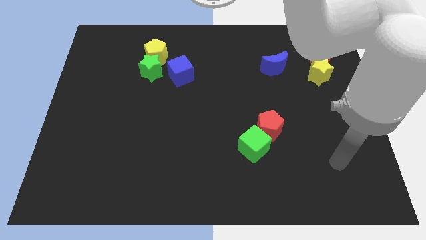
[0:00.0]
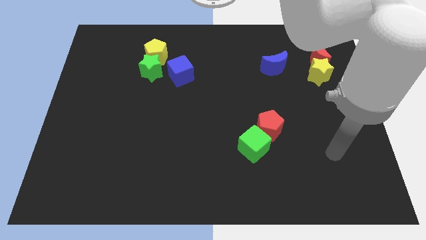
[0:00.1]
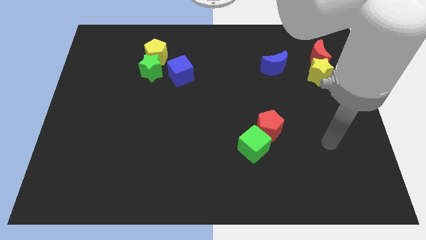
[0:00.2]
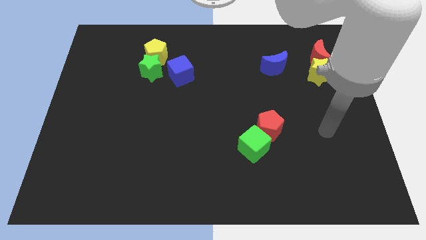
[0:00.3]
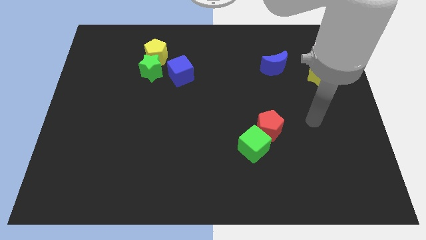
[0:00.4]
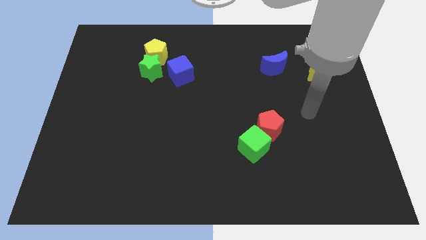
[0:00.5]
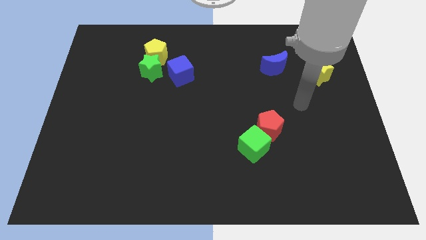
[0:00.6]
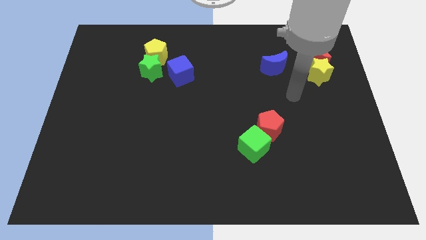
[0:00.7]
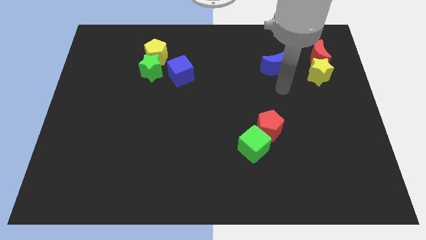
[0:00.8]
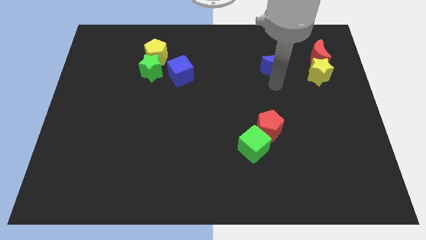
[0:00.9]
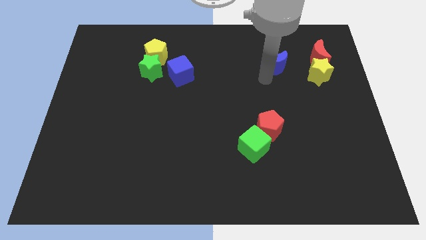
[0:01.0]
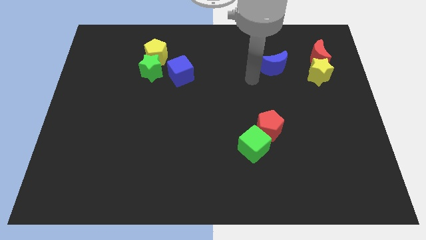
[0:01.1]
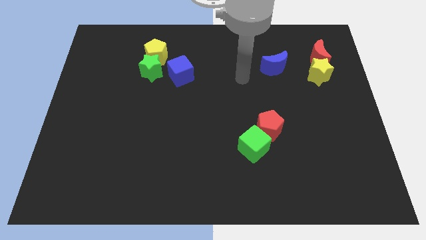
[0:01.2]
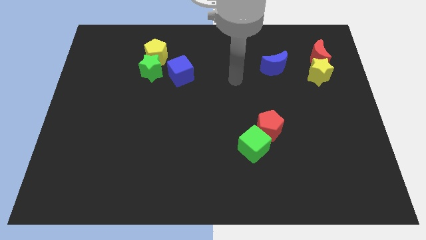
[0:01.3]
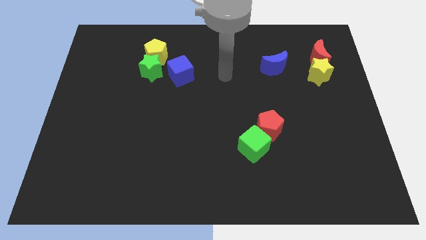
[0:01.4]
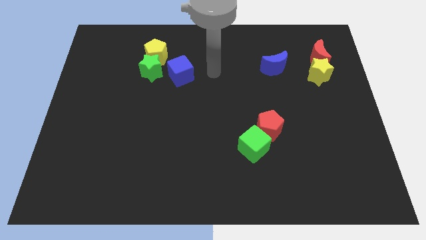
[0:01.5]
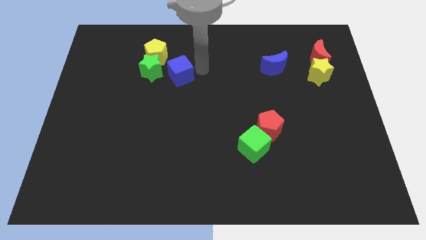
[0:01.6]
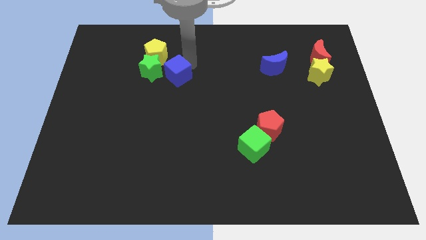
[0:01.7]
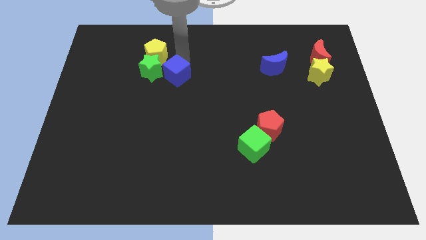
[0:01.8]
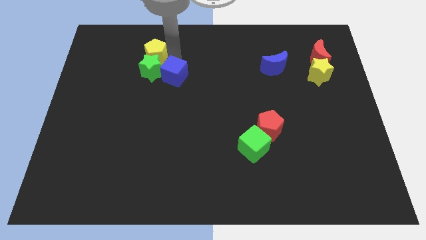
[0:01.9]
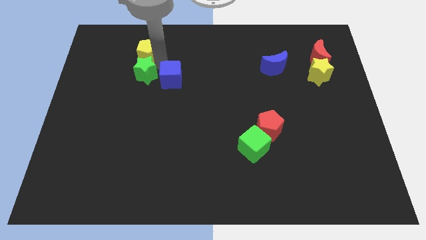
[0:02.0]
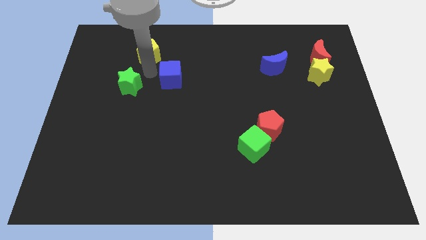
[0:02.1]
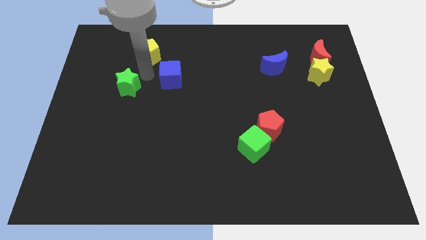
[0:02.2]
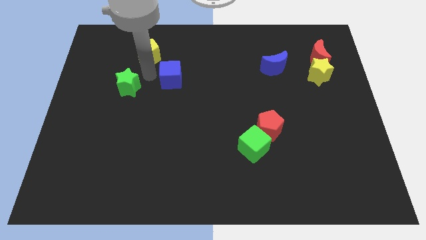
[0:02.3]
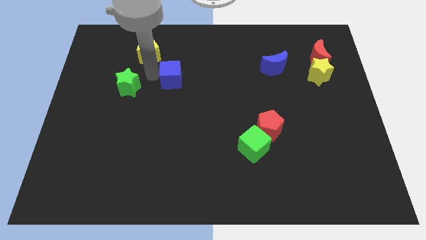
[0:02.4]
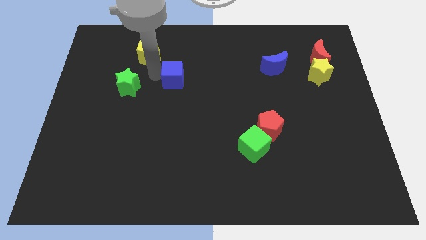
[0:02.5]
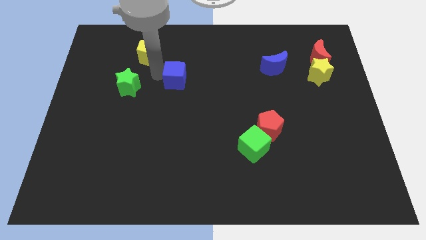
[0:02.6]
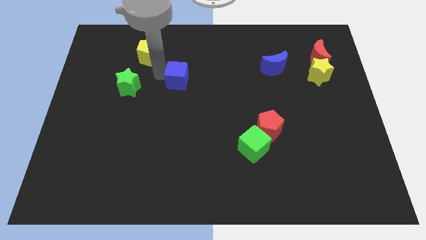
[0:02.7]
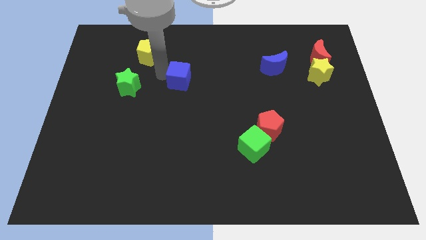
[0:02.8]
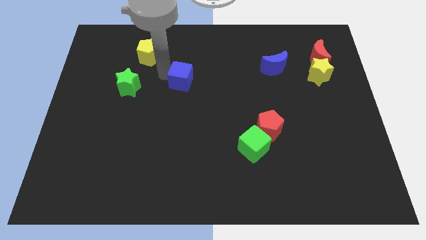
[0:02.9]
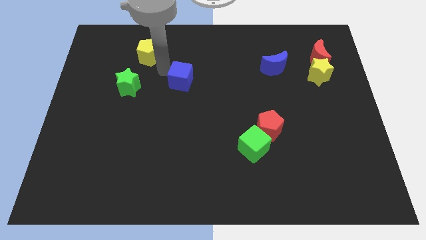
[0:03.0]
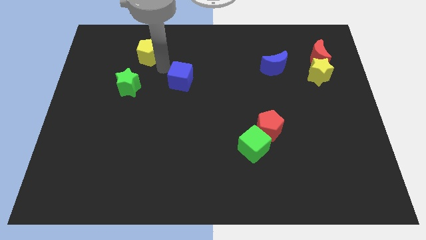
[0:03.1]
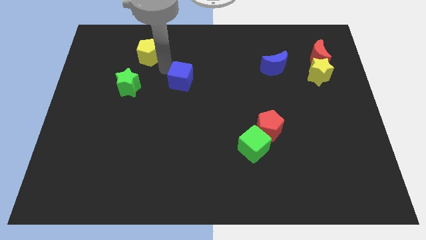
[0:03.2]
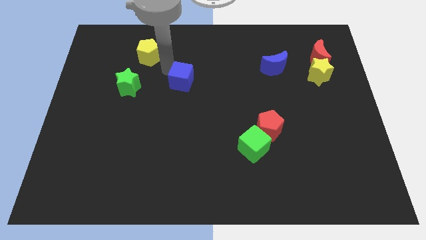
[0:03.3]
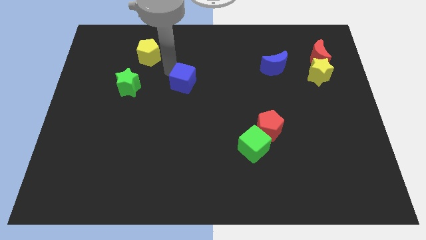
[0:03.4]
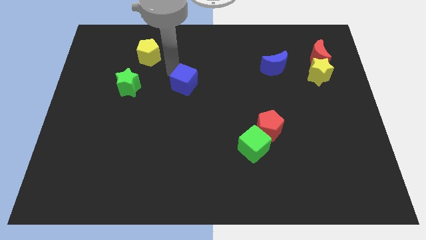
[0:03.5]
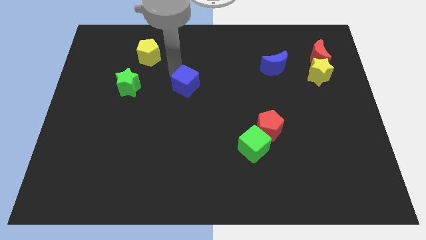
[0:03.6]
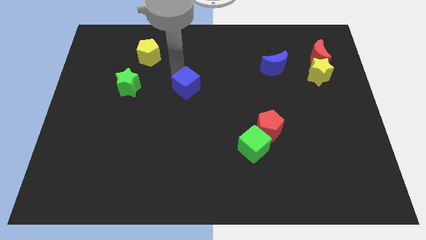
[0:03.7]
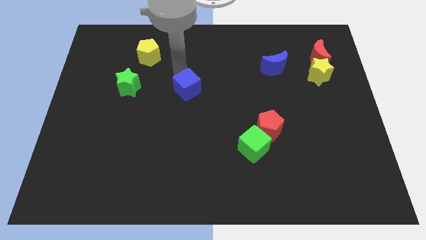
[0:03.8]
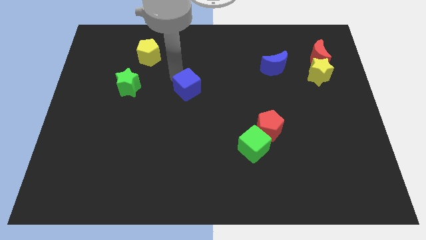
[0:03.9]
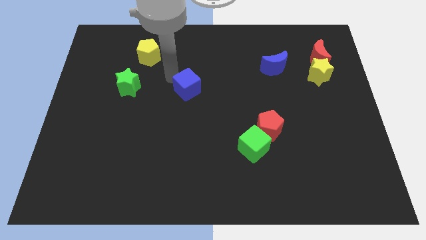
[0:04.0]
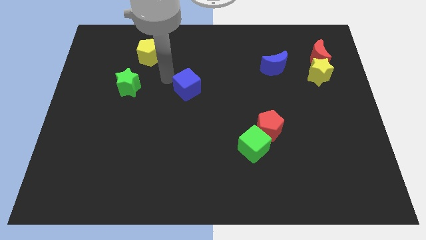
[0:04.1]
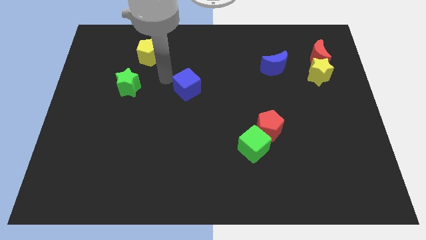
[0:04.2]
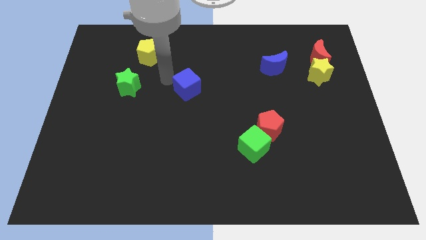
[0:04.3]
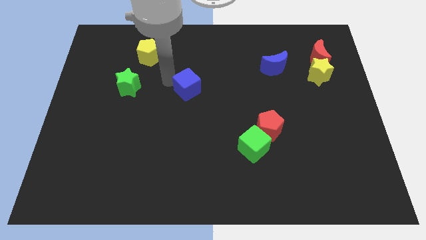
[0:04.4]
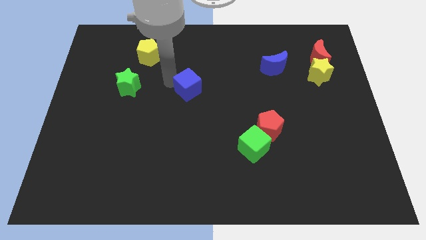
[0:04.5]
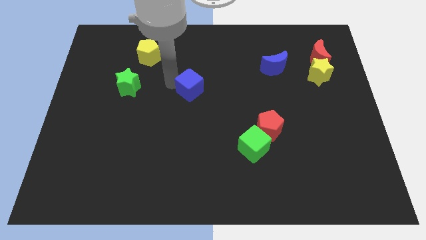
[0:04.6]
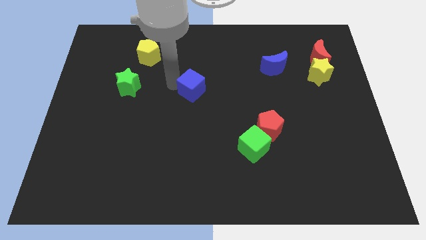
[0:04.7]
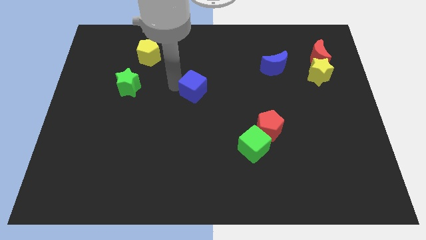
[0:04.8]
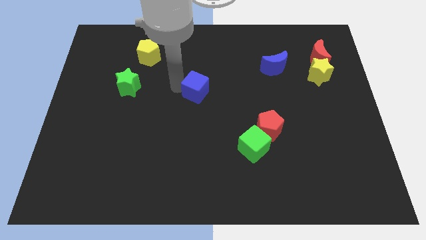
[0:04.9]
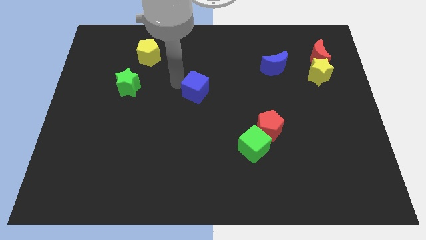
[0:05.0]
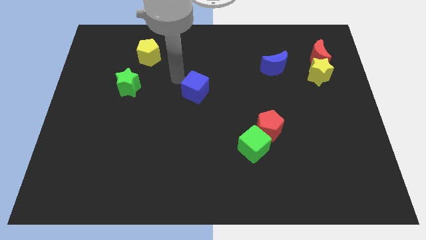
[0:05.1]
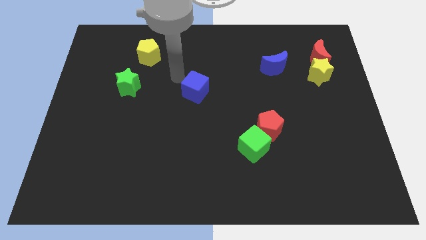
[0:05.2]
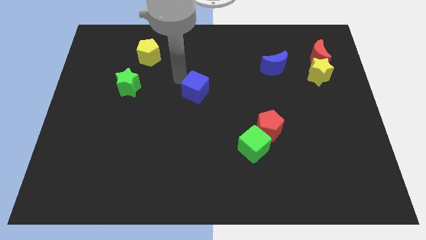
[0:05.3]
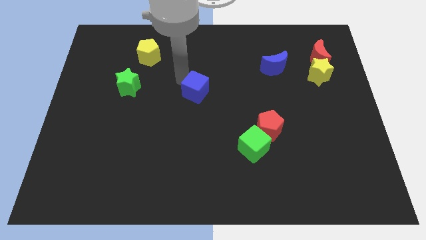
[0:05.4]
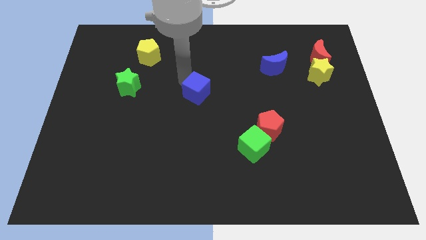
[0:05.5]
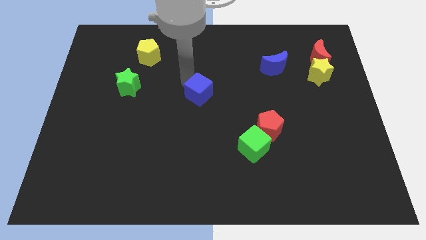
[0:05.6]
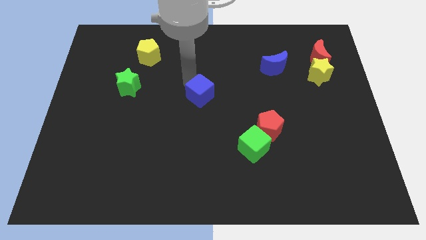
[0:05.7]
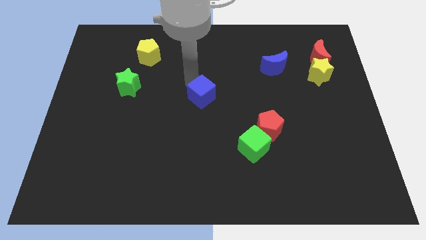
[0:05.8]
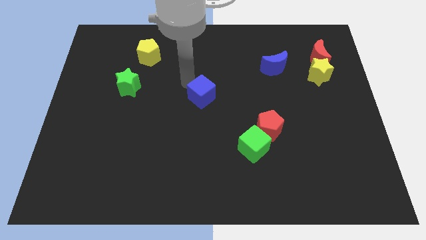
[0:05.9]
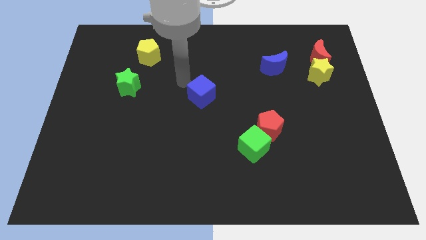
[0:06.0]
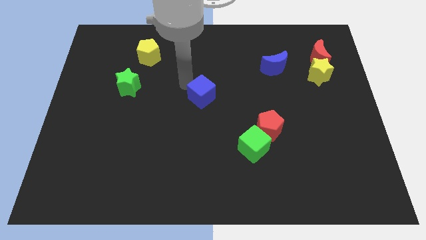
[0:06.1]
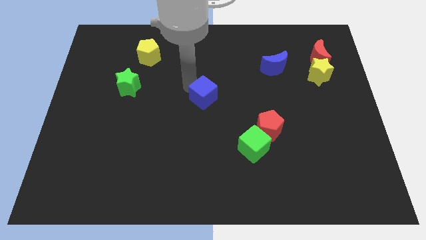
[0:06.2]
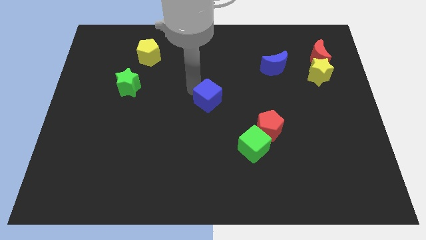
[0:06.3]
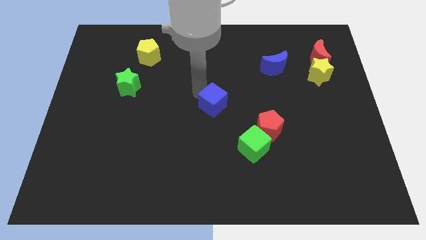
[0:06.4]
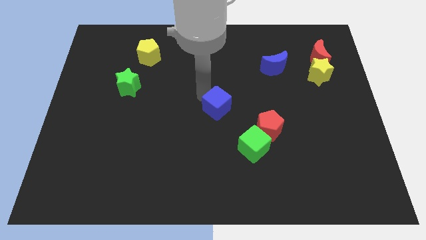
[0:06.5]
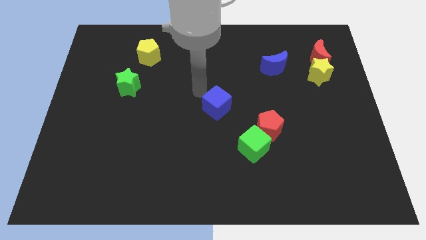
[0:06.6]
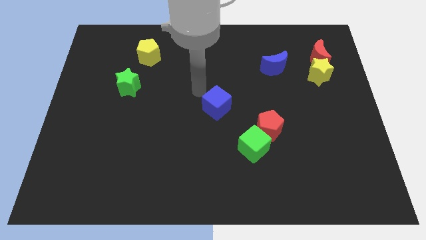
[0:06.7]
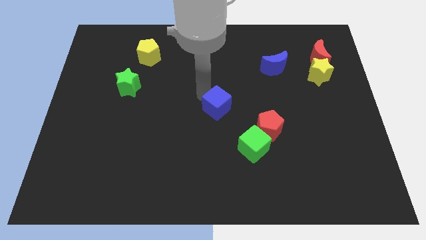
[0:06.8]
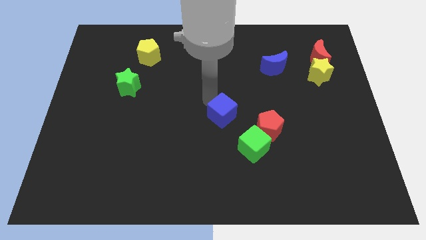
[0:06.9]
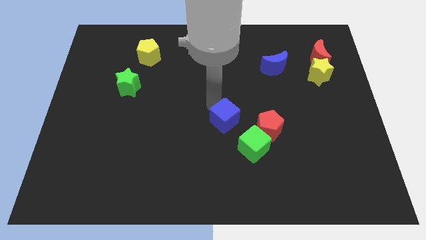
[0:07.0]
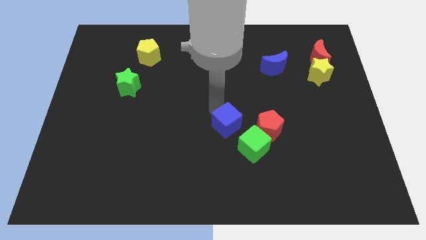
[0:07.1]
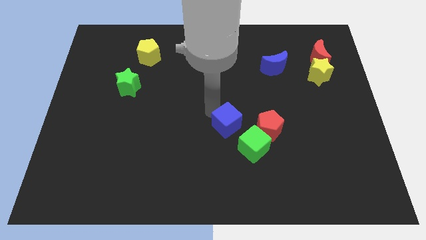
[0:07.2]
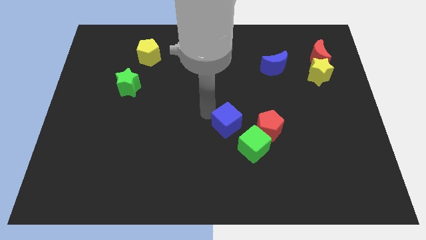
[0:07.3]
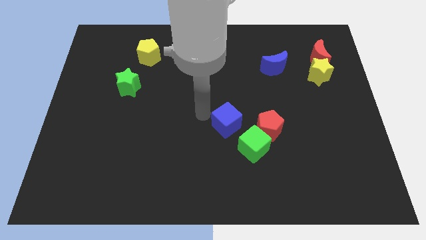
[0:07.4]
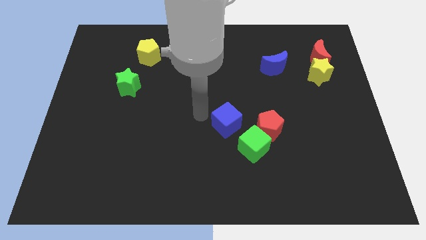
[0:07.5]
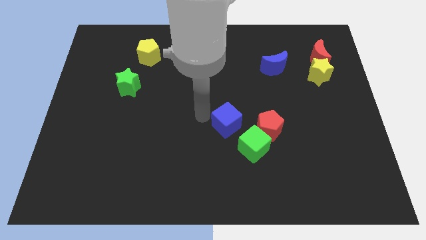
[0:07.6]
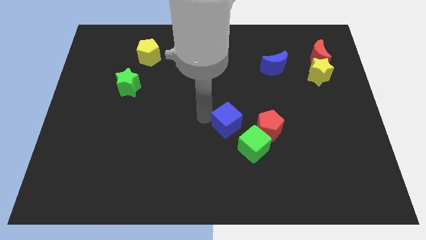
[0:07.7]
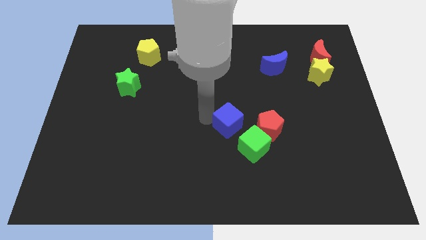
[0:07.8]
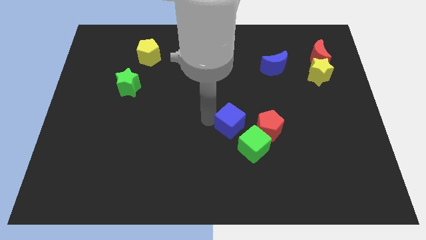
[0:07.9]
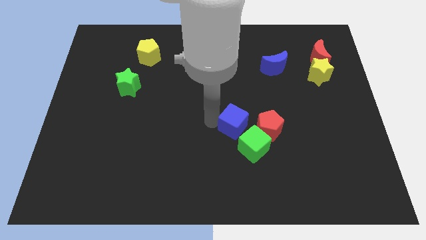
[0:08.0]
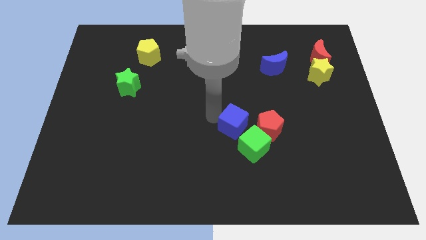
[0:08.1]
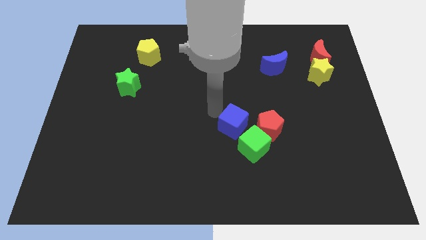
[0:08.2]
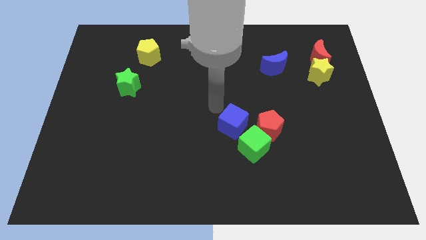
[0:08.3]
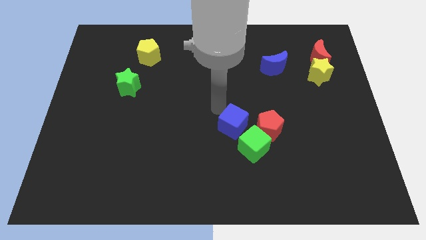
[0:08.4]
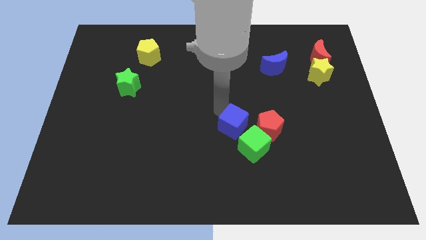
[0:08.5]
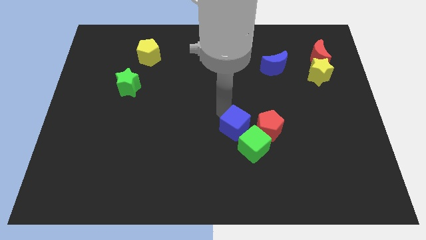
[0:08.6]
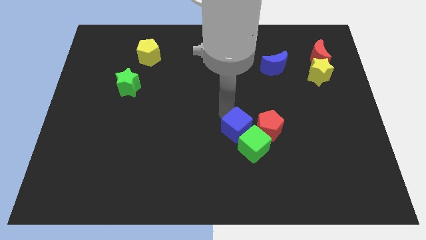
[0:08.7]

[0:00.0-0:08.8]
slide the blue cube to the green cube
